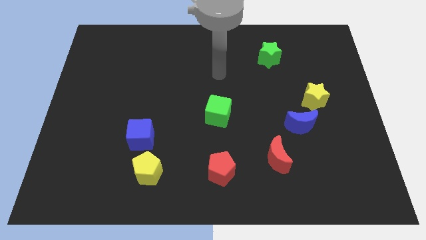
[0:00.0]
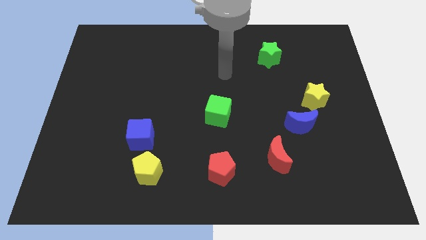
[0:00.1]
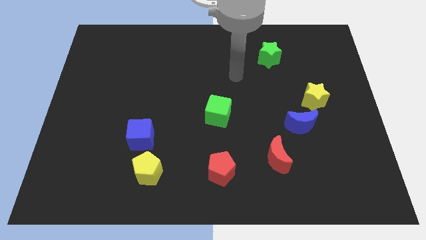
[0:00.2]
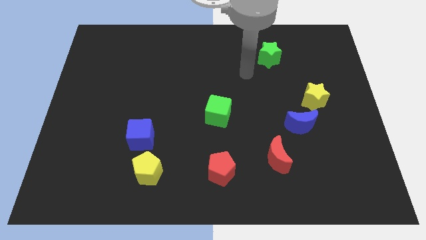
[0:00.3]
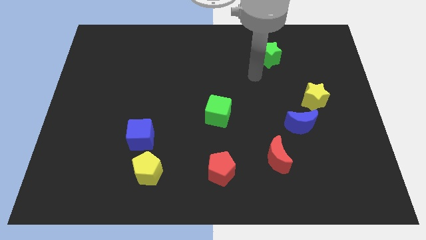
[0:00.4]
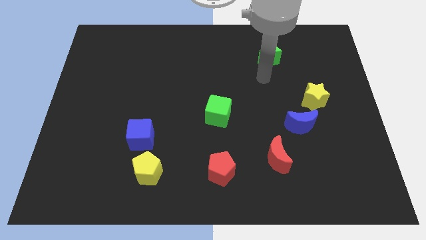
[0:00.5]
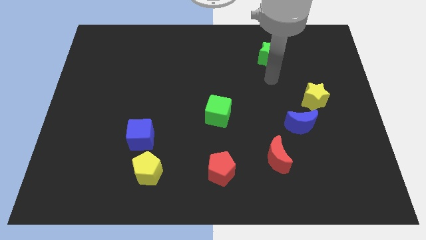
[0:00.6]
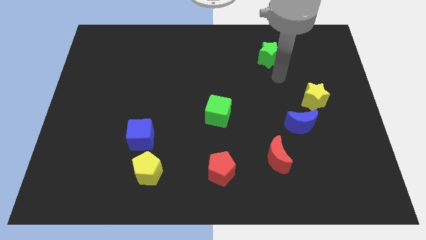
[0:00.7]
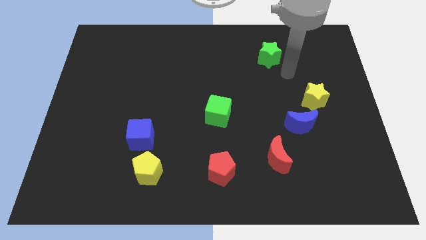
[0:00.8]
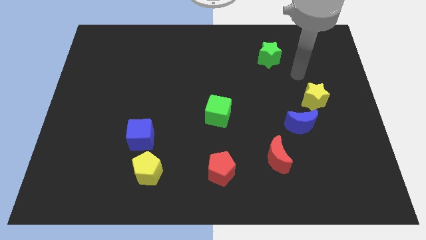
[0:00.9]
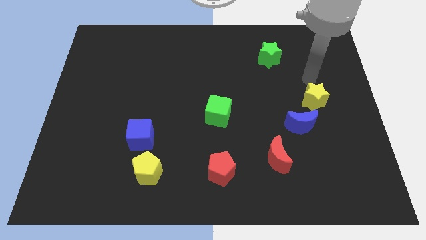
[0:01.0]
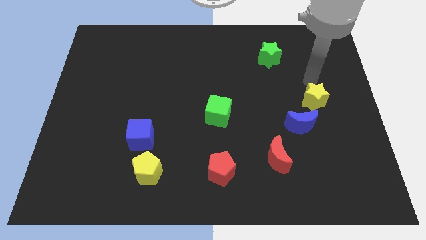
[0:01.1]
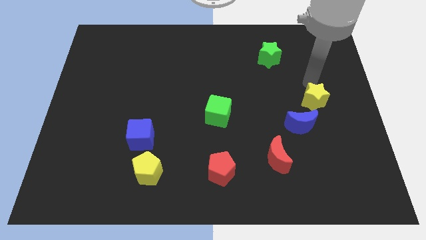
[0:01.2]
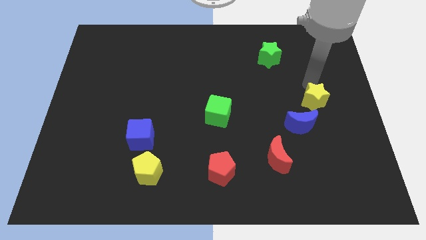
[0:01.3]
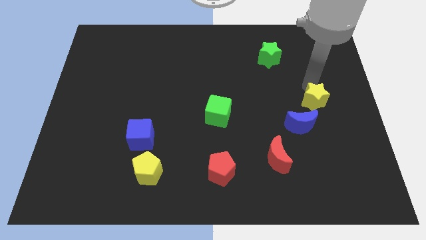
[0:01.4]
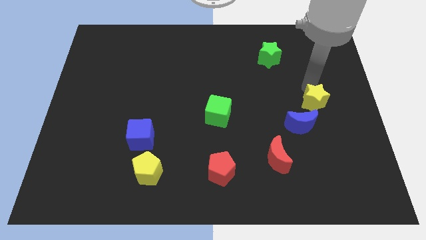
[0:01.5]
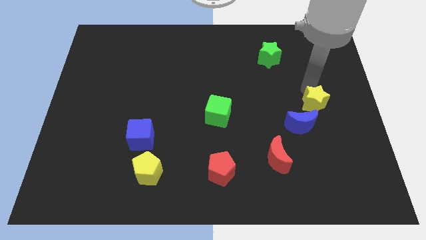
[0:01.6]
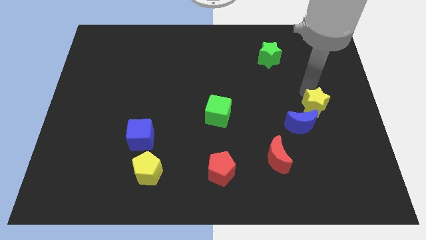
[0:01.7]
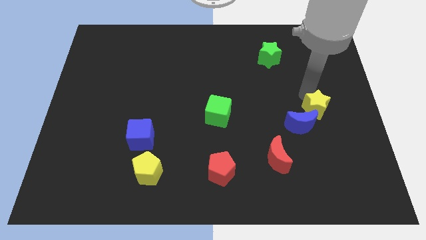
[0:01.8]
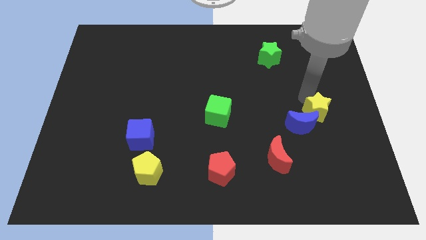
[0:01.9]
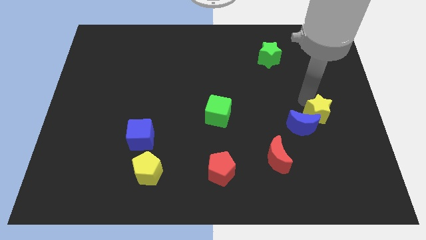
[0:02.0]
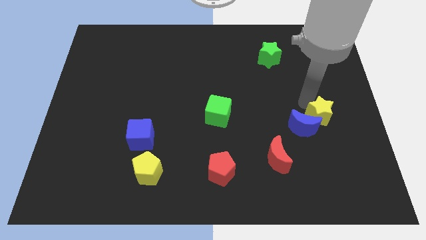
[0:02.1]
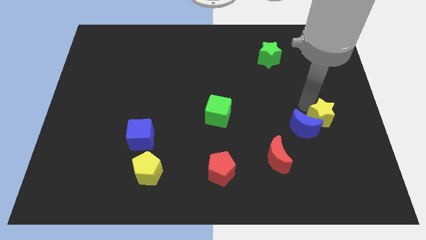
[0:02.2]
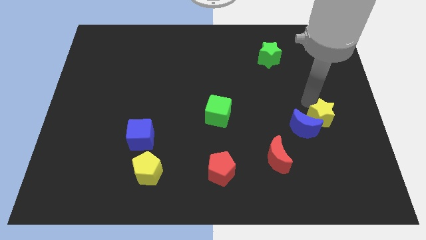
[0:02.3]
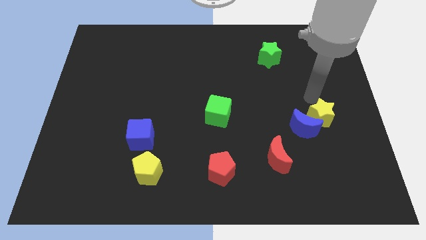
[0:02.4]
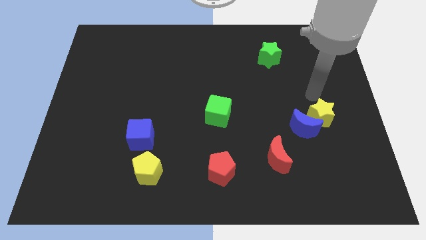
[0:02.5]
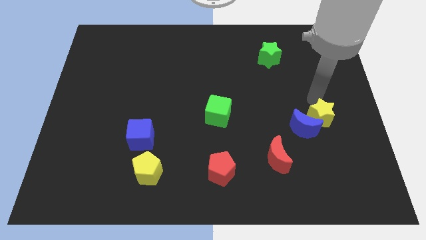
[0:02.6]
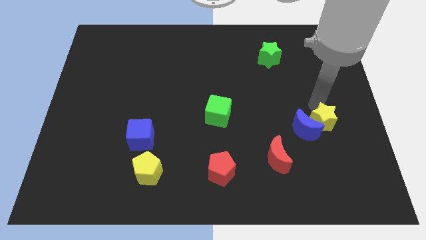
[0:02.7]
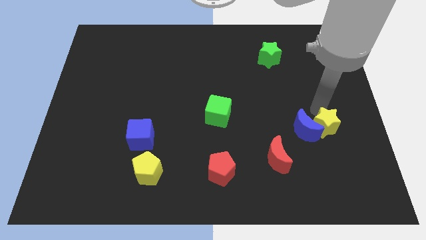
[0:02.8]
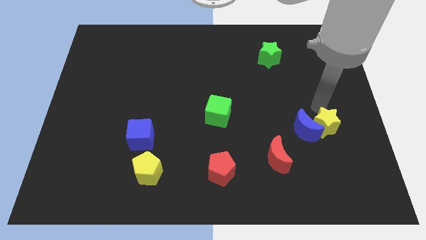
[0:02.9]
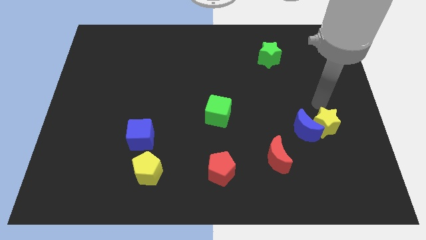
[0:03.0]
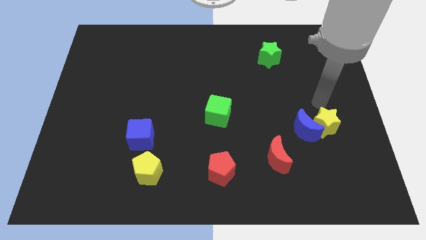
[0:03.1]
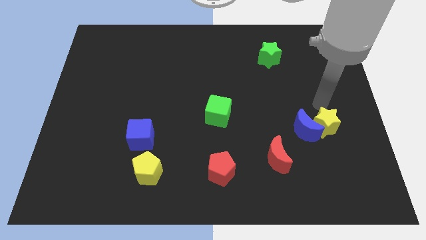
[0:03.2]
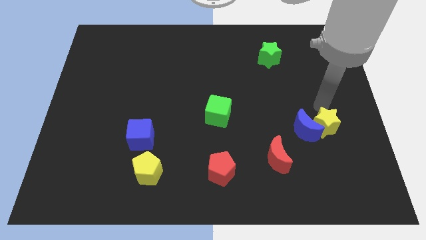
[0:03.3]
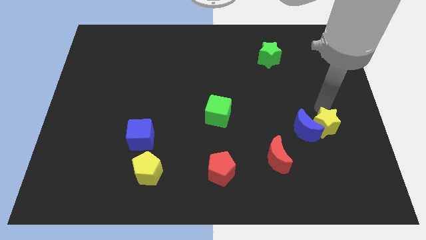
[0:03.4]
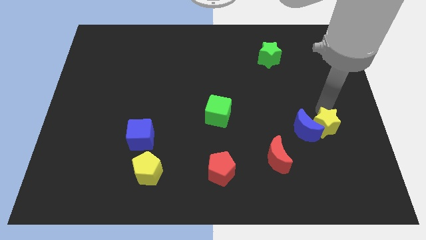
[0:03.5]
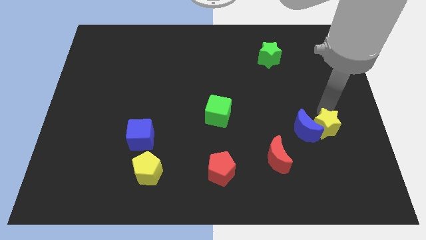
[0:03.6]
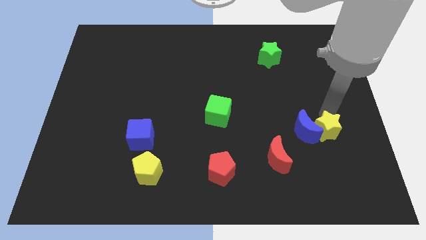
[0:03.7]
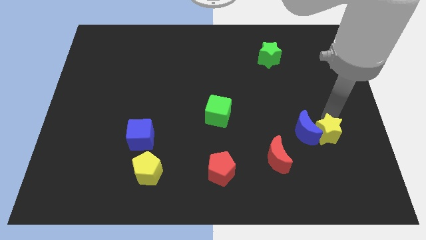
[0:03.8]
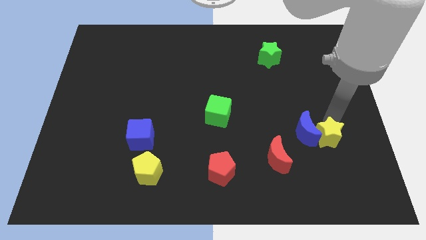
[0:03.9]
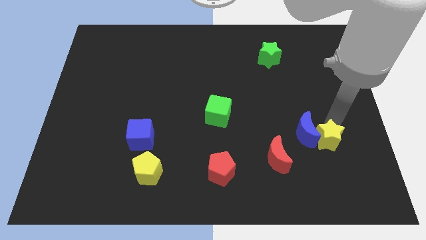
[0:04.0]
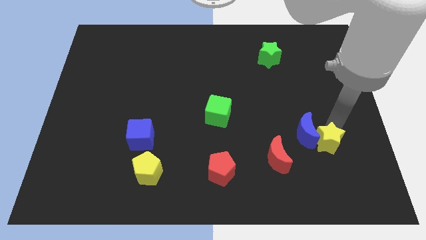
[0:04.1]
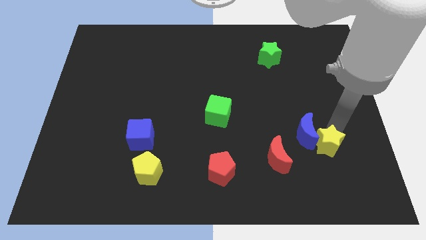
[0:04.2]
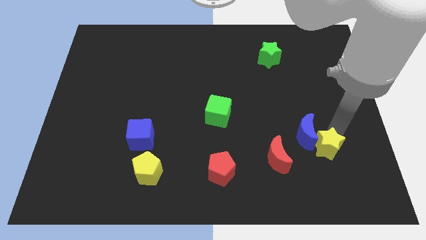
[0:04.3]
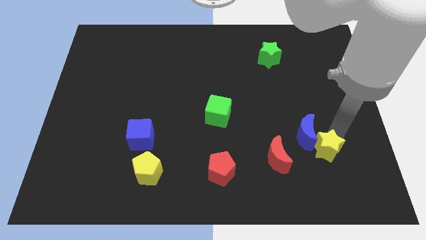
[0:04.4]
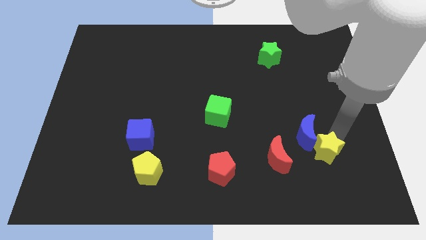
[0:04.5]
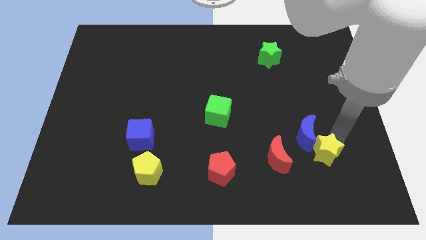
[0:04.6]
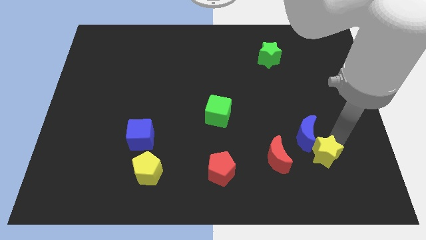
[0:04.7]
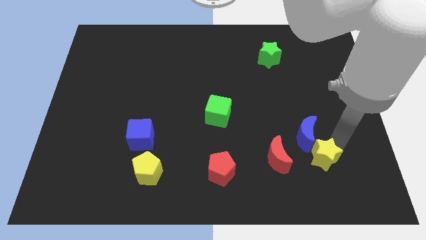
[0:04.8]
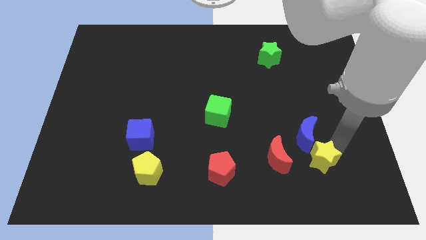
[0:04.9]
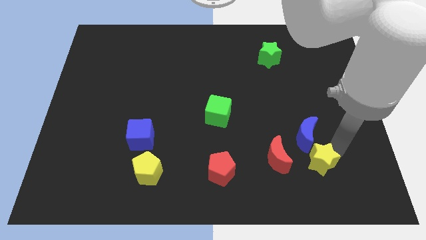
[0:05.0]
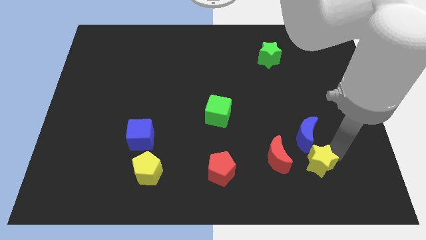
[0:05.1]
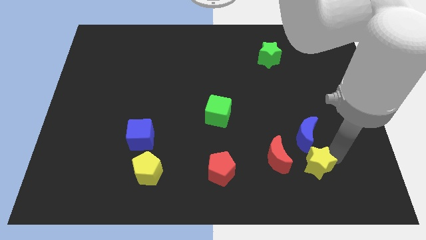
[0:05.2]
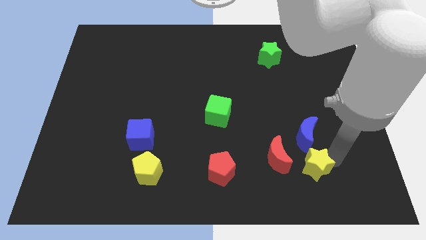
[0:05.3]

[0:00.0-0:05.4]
push the yellow star diagonally down and to the right of the red moon

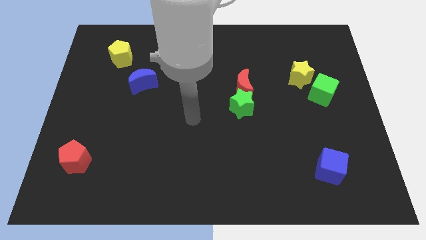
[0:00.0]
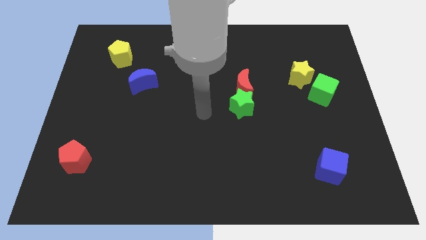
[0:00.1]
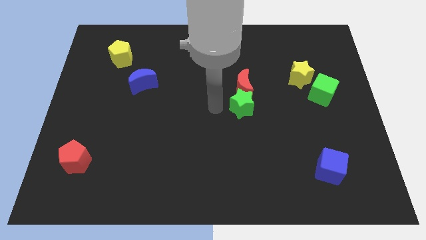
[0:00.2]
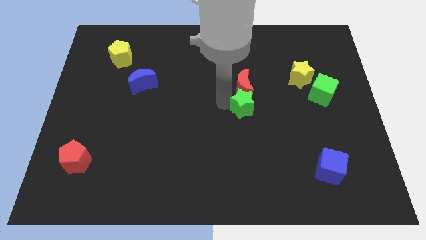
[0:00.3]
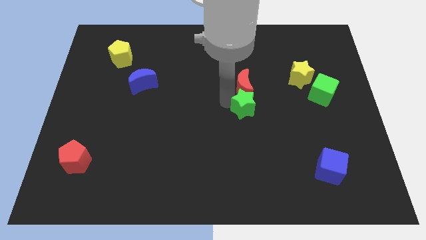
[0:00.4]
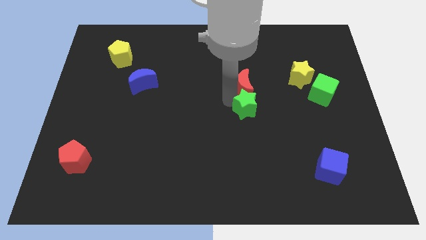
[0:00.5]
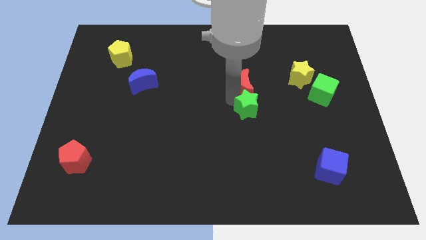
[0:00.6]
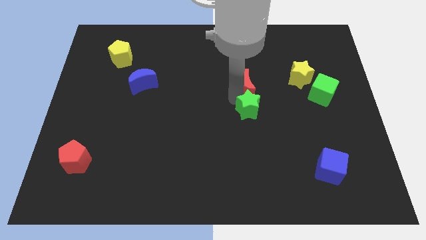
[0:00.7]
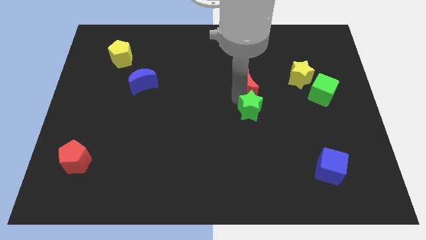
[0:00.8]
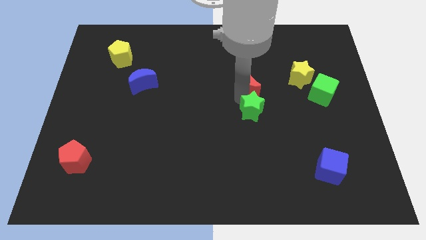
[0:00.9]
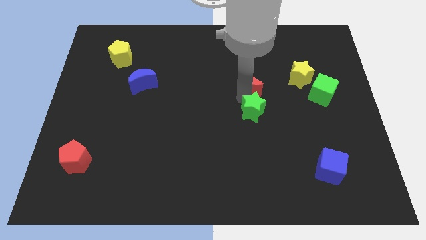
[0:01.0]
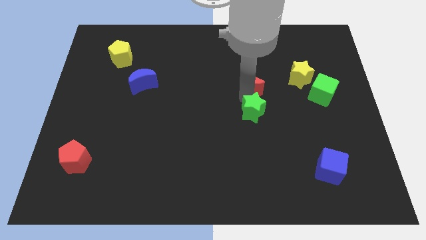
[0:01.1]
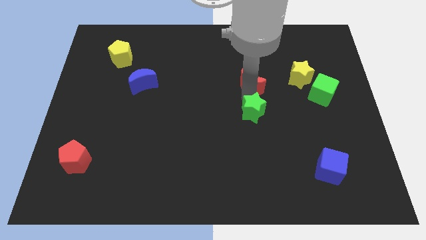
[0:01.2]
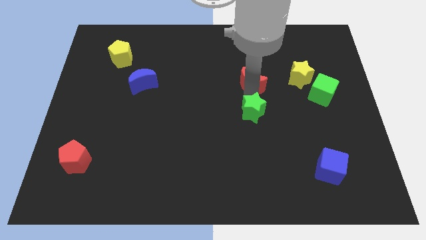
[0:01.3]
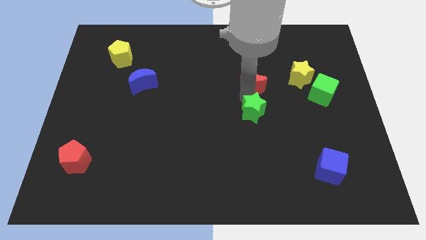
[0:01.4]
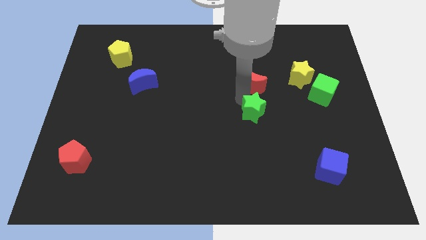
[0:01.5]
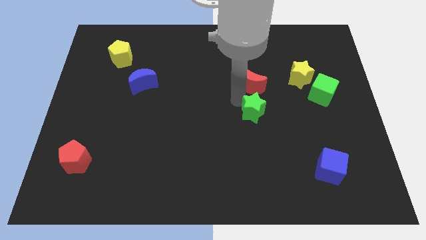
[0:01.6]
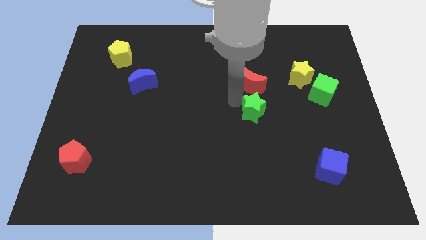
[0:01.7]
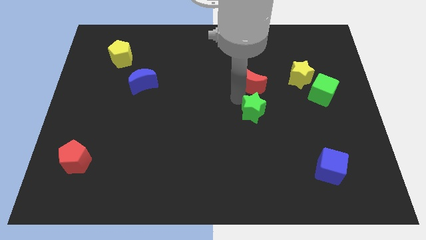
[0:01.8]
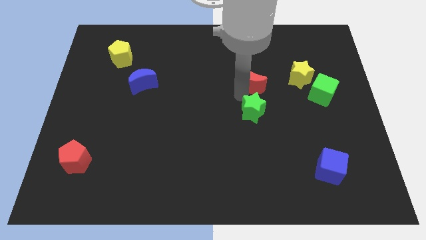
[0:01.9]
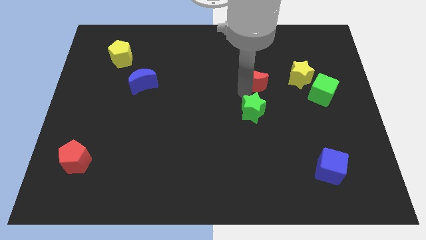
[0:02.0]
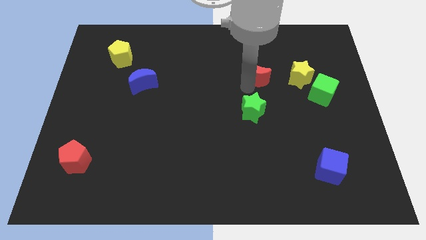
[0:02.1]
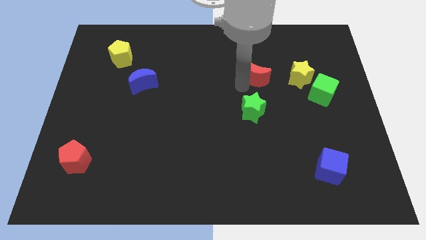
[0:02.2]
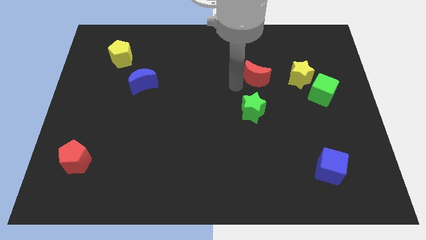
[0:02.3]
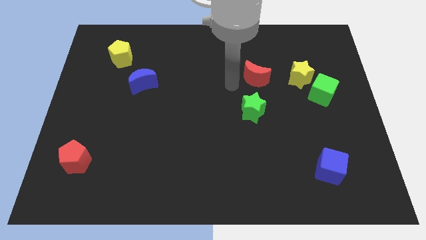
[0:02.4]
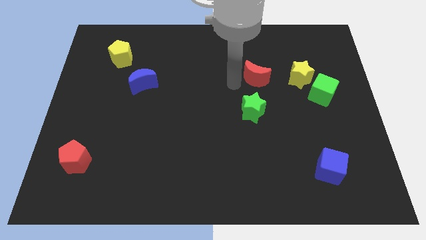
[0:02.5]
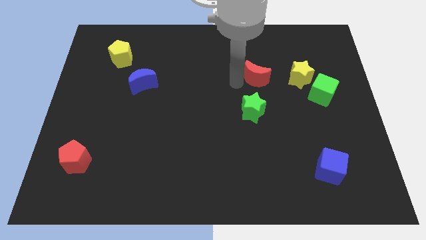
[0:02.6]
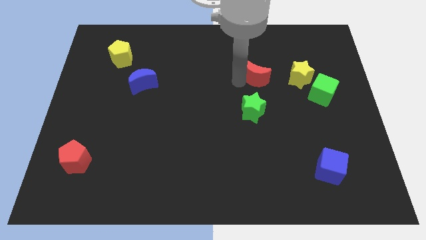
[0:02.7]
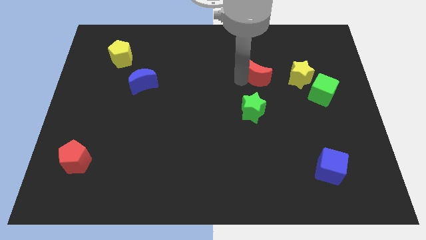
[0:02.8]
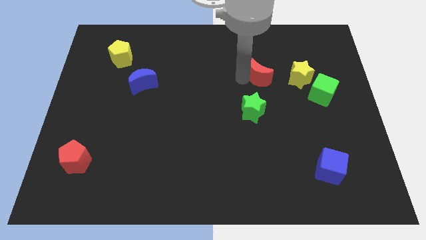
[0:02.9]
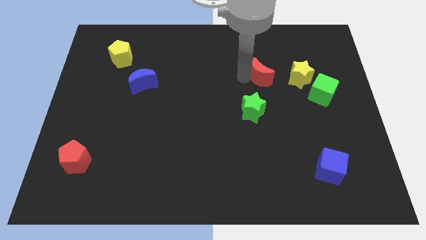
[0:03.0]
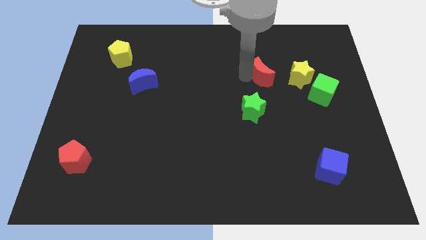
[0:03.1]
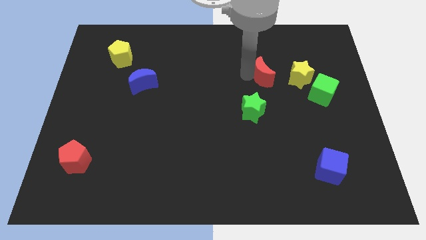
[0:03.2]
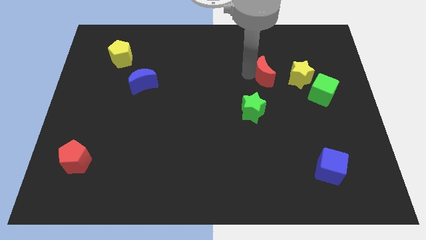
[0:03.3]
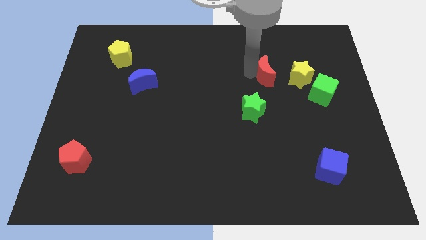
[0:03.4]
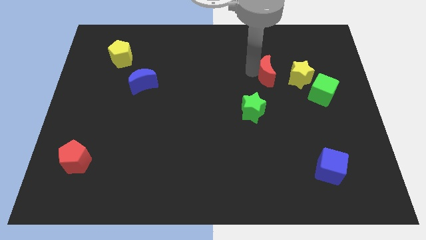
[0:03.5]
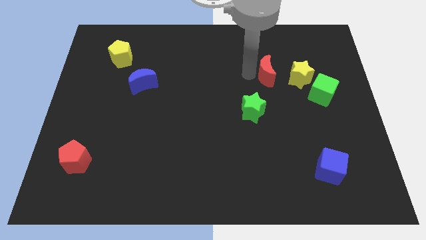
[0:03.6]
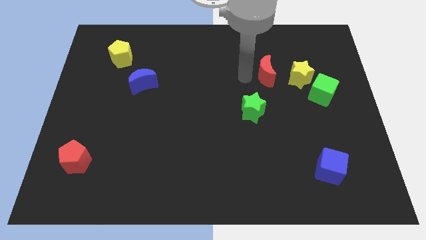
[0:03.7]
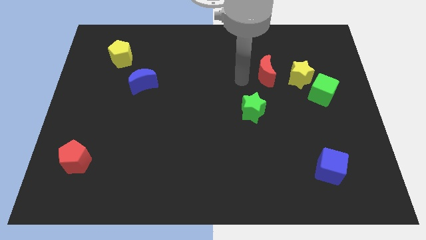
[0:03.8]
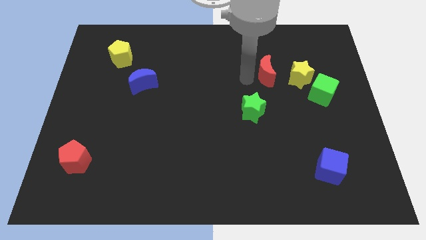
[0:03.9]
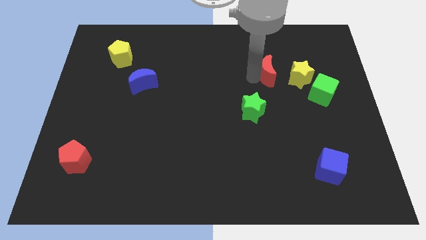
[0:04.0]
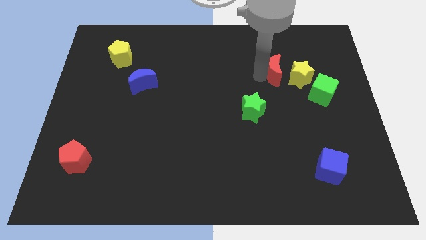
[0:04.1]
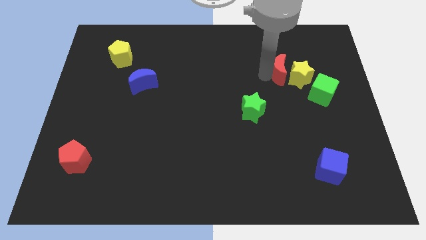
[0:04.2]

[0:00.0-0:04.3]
push the red moon to the top left of the green cube
